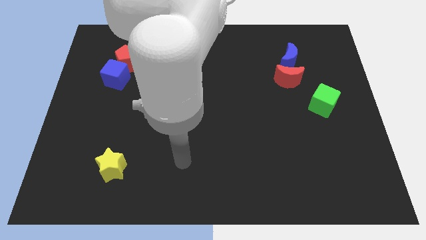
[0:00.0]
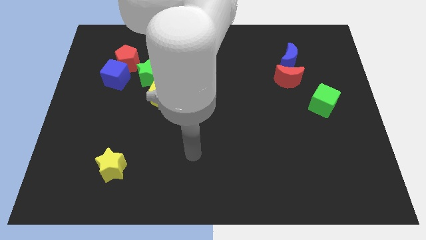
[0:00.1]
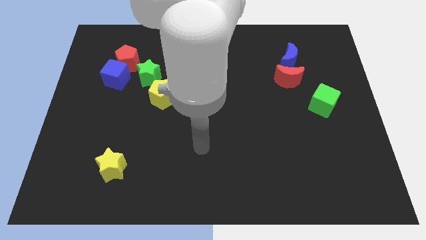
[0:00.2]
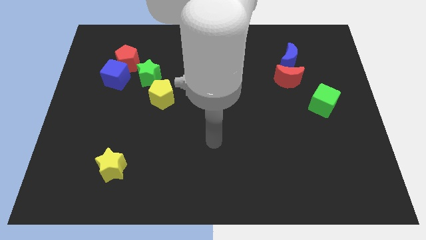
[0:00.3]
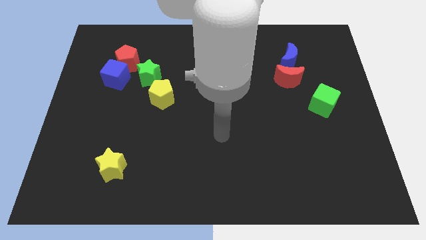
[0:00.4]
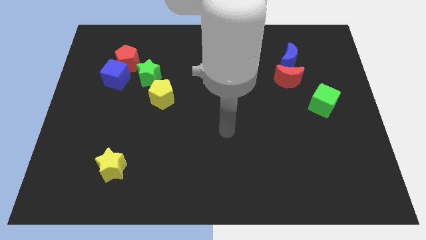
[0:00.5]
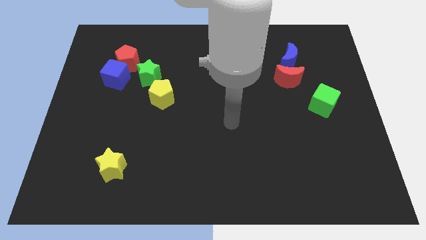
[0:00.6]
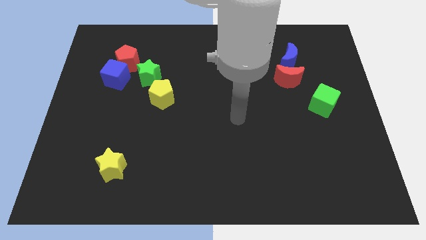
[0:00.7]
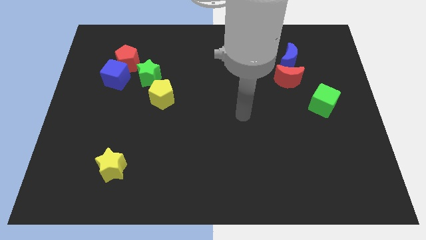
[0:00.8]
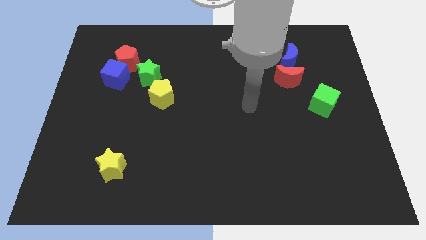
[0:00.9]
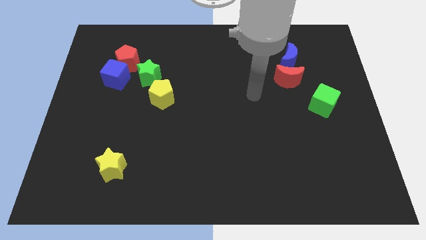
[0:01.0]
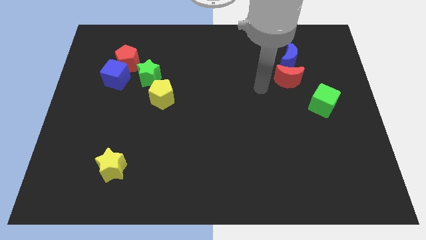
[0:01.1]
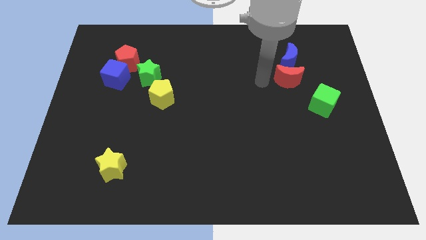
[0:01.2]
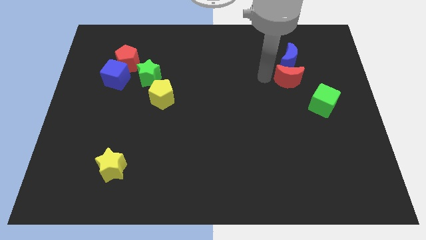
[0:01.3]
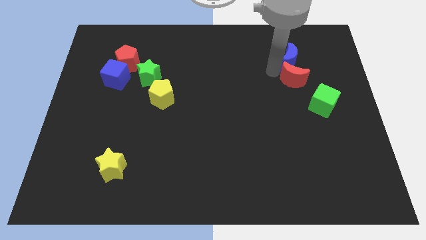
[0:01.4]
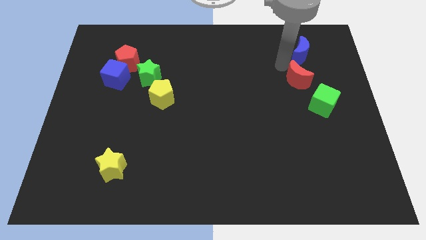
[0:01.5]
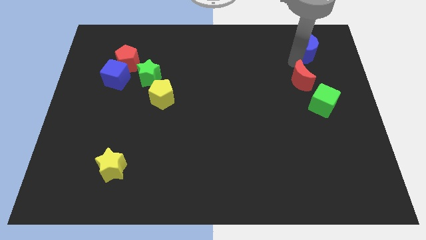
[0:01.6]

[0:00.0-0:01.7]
pull the red moon apart from the blue moon

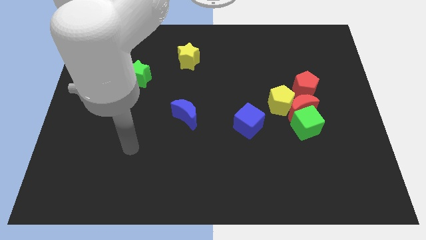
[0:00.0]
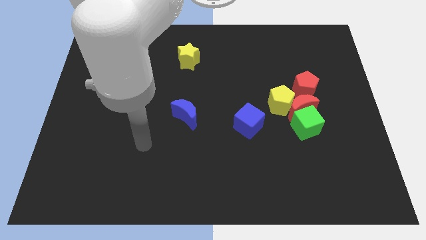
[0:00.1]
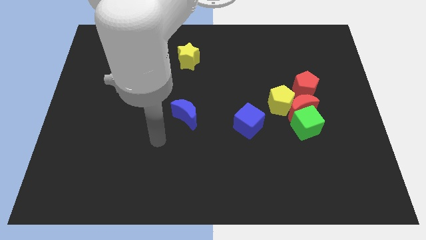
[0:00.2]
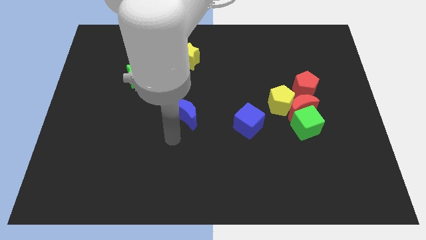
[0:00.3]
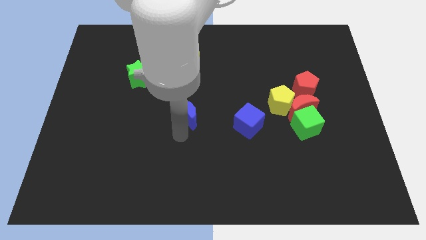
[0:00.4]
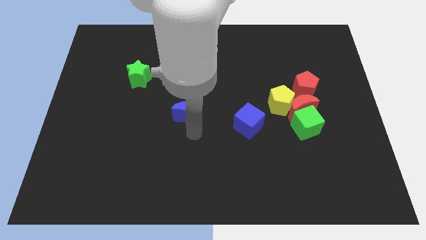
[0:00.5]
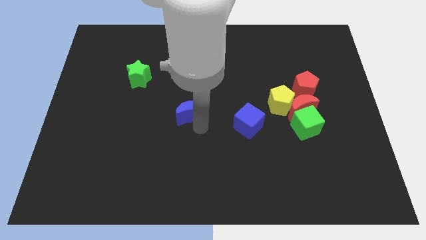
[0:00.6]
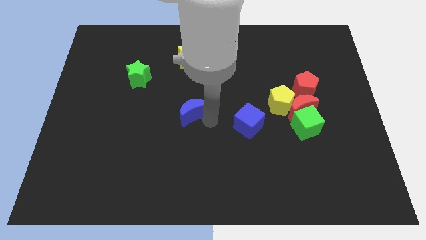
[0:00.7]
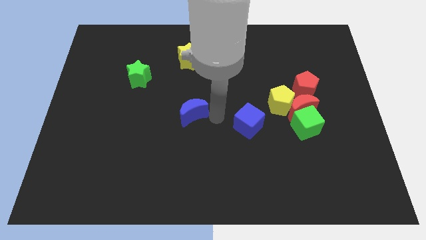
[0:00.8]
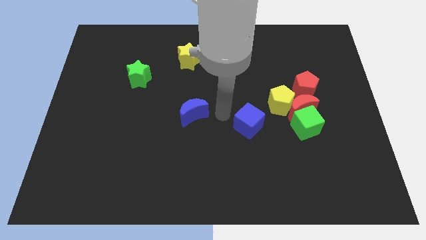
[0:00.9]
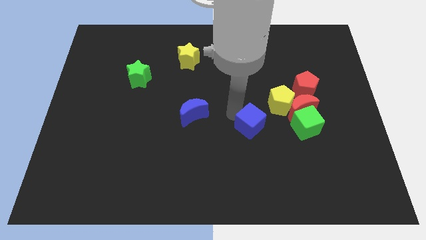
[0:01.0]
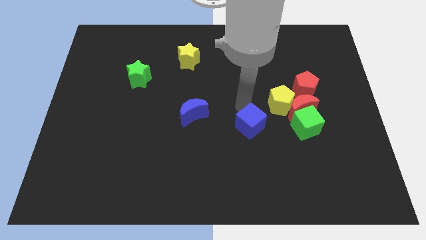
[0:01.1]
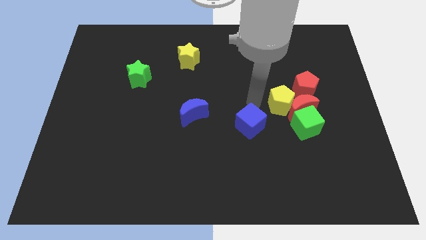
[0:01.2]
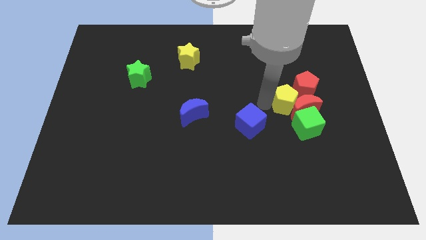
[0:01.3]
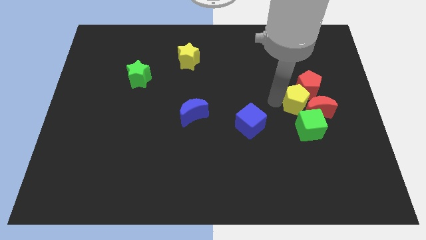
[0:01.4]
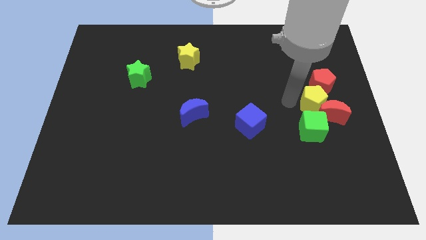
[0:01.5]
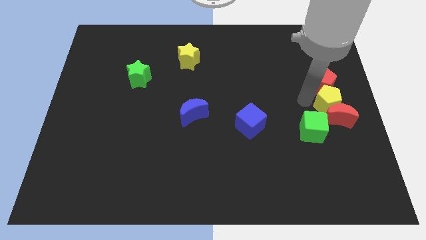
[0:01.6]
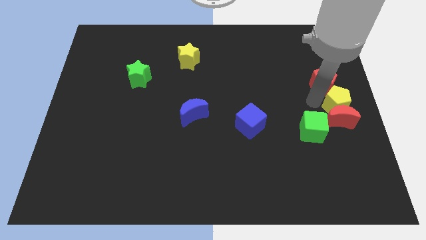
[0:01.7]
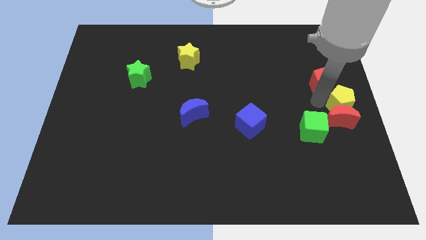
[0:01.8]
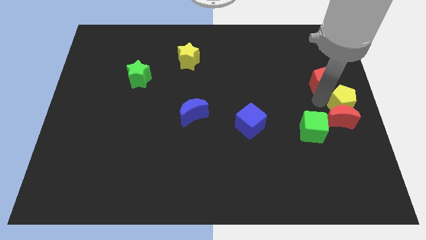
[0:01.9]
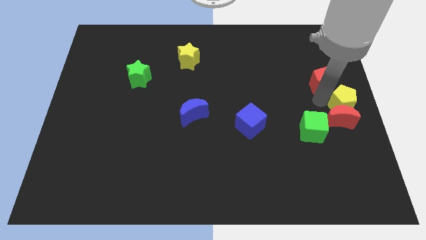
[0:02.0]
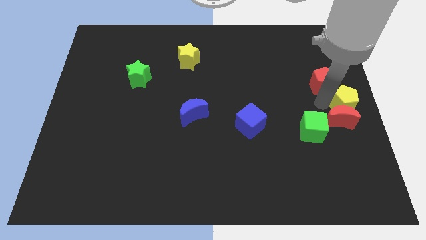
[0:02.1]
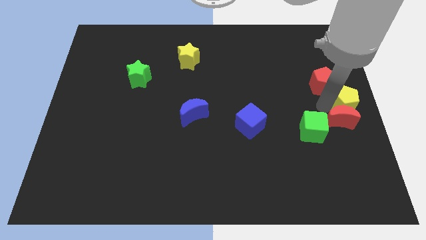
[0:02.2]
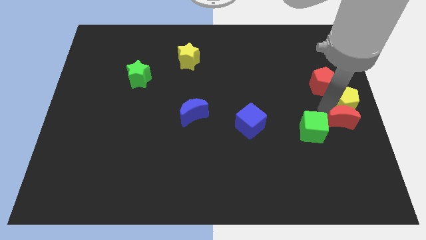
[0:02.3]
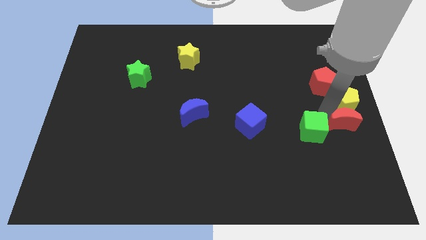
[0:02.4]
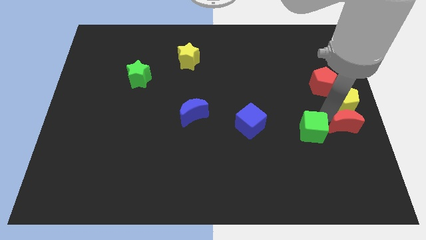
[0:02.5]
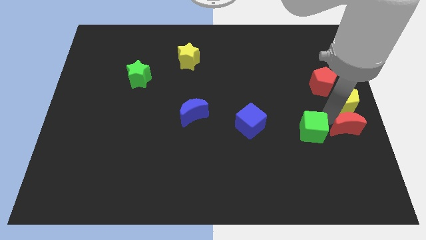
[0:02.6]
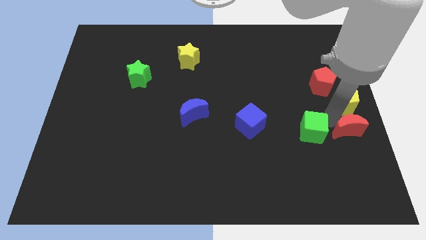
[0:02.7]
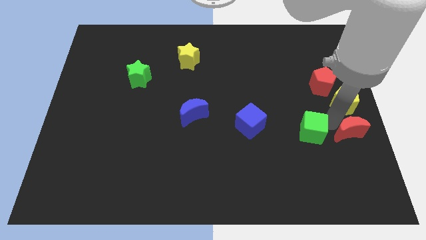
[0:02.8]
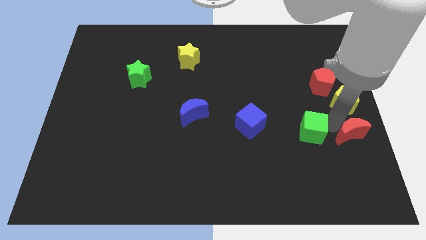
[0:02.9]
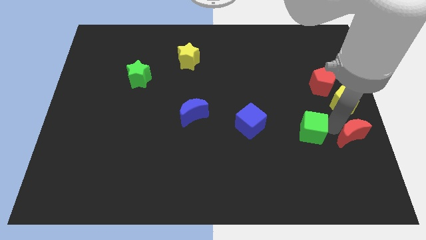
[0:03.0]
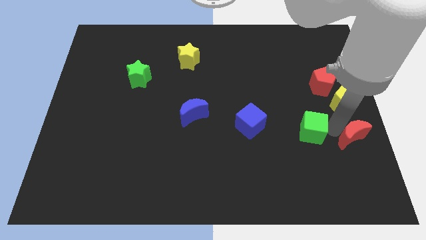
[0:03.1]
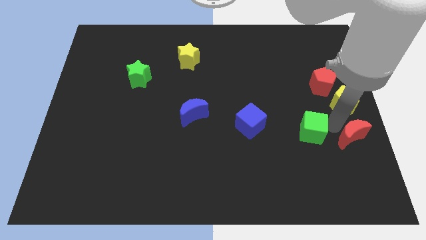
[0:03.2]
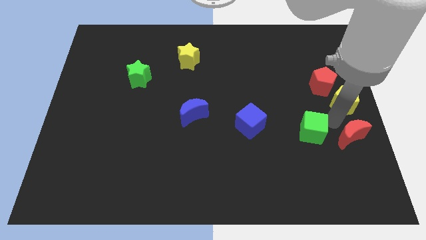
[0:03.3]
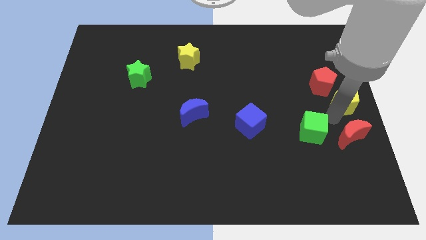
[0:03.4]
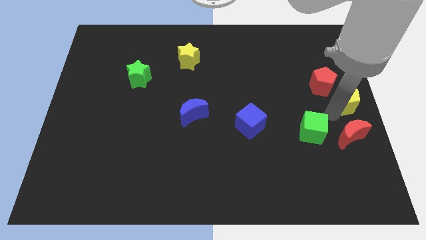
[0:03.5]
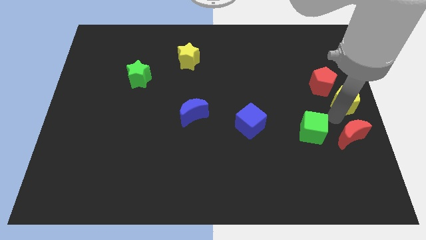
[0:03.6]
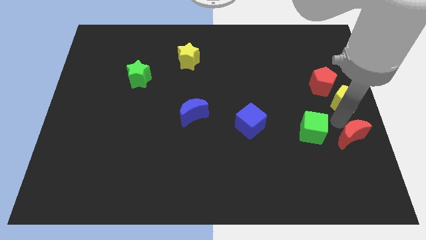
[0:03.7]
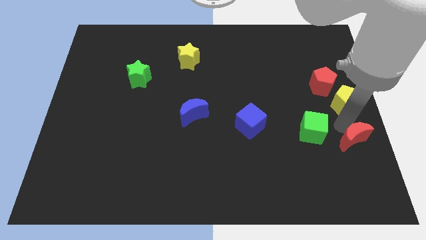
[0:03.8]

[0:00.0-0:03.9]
pull the red moon apart from the clump

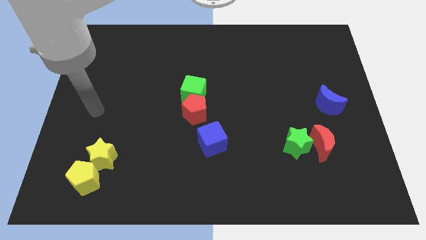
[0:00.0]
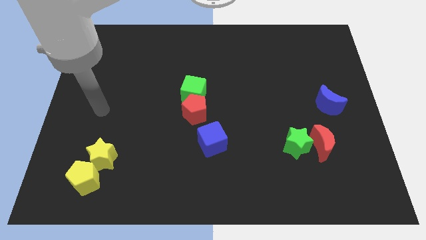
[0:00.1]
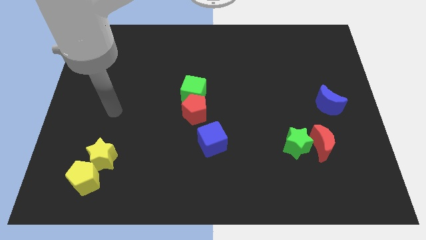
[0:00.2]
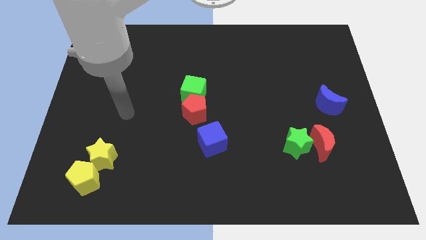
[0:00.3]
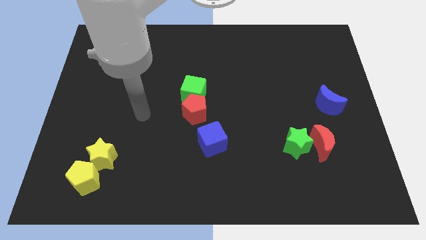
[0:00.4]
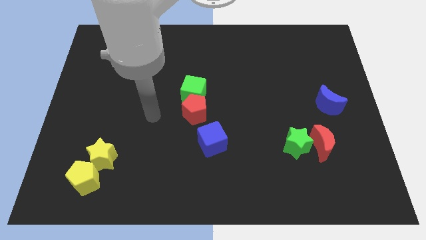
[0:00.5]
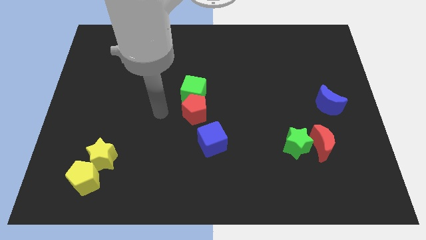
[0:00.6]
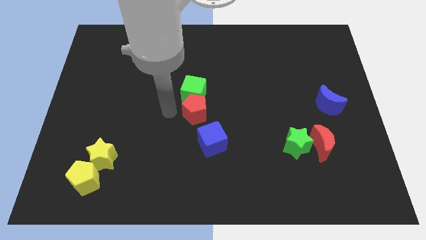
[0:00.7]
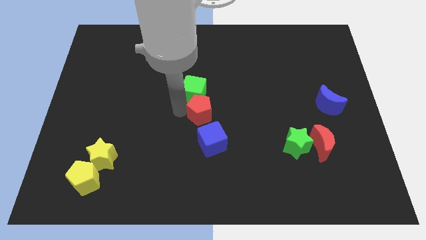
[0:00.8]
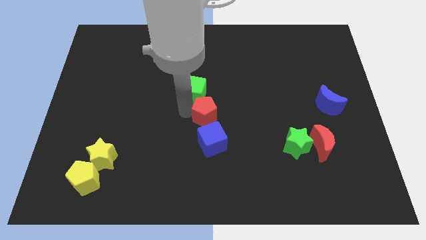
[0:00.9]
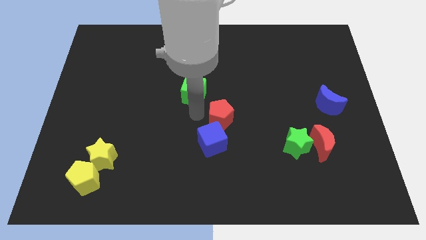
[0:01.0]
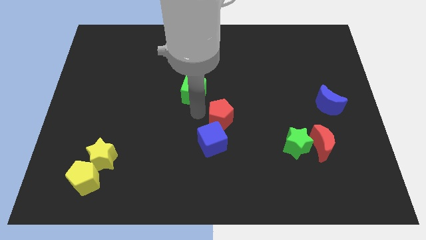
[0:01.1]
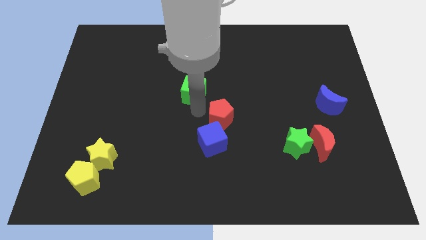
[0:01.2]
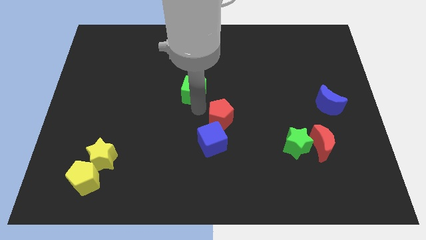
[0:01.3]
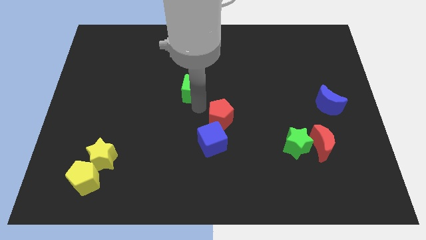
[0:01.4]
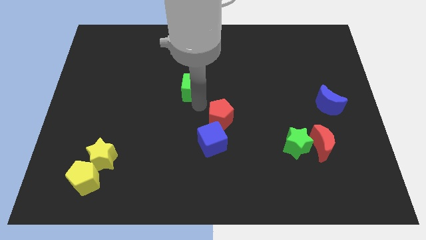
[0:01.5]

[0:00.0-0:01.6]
move the green cube away from the red pentagon

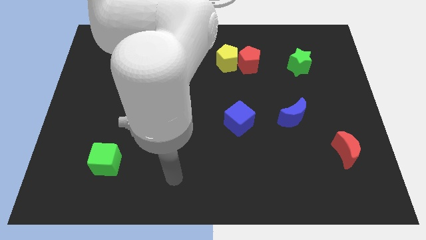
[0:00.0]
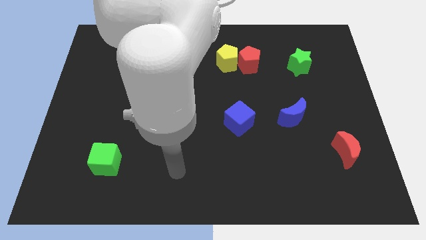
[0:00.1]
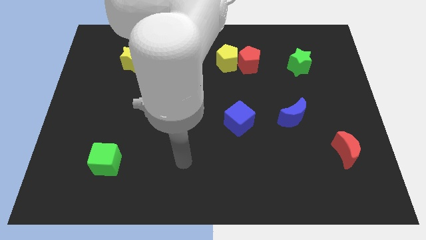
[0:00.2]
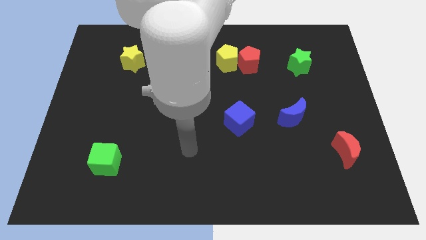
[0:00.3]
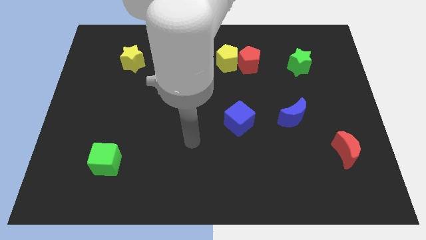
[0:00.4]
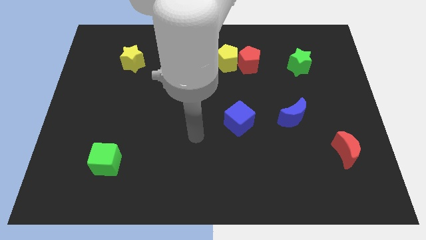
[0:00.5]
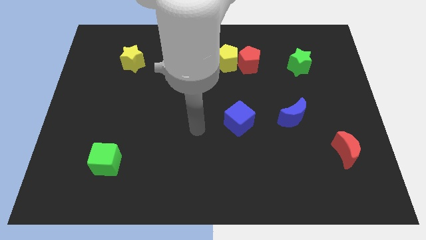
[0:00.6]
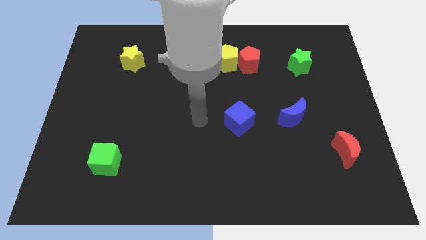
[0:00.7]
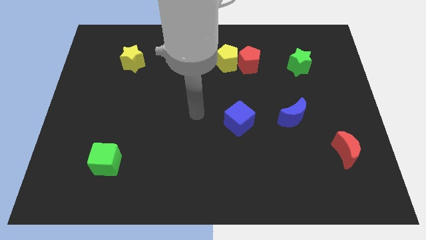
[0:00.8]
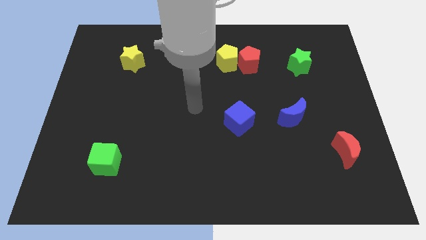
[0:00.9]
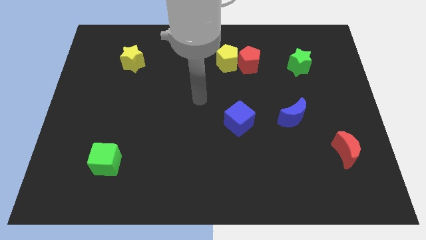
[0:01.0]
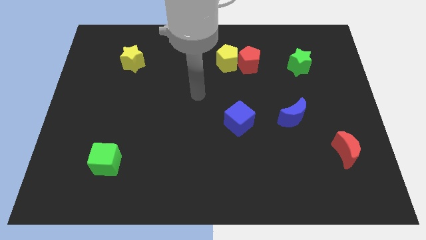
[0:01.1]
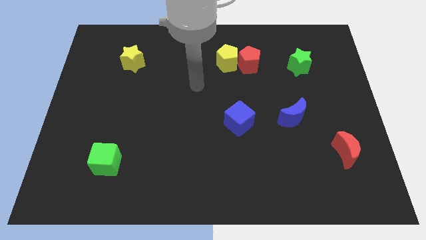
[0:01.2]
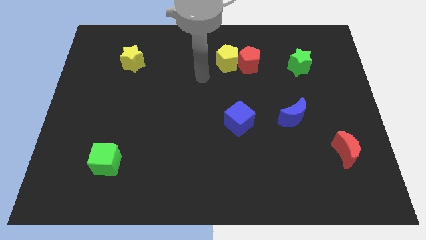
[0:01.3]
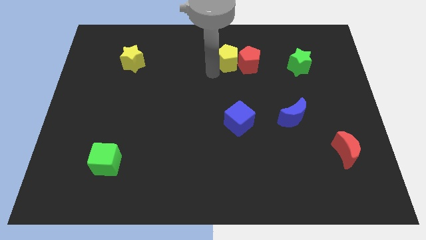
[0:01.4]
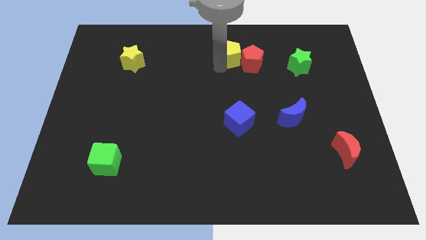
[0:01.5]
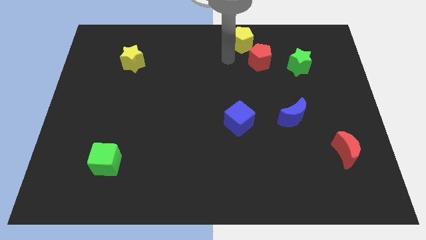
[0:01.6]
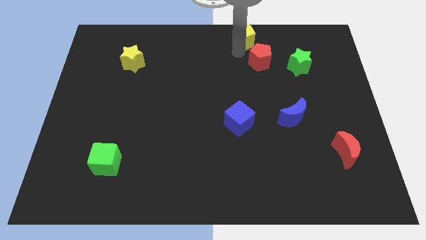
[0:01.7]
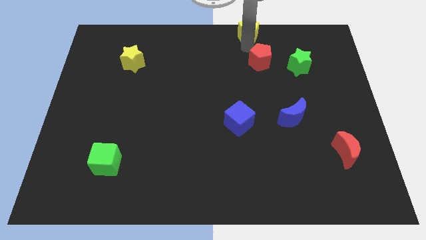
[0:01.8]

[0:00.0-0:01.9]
separate the red pentagon from the yellow pentagon

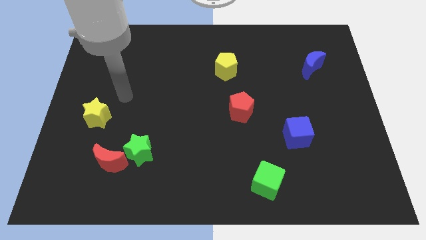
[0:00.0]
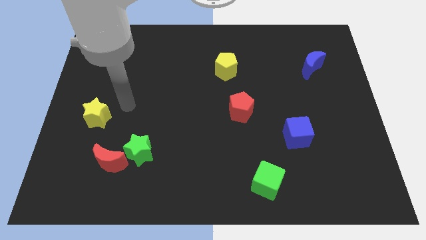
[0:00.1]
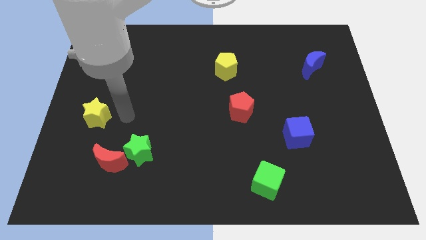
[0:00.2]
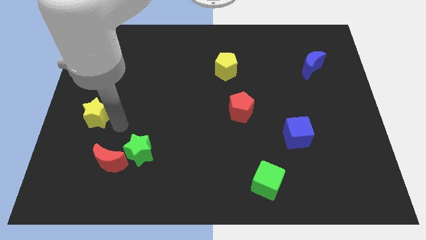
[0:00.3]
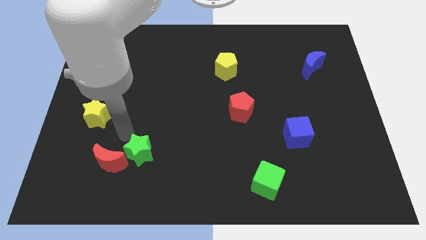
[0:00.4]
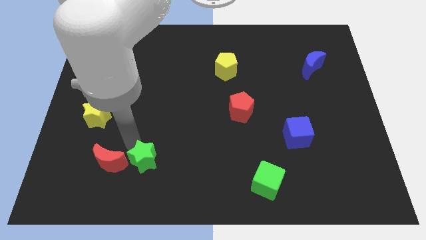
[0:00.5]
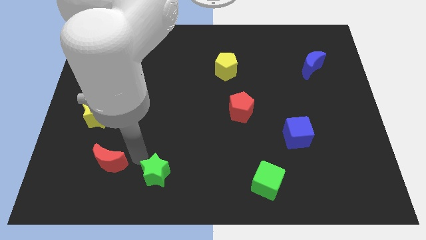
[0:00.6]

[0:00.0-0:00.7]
pull the red moon apart from the green star
